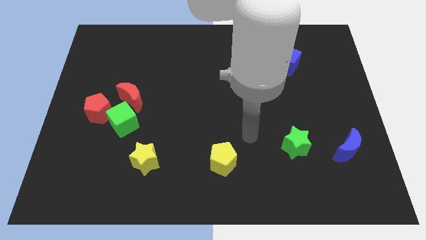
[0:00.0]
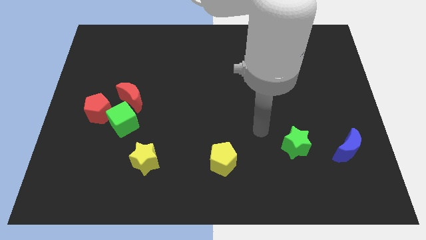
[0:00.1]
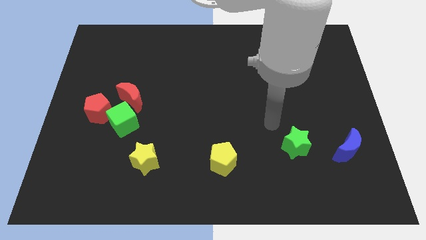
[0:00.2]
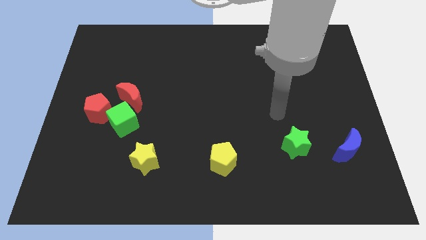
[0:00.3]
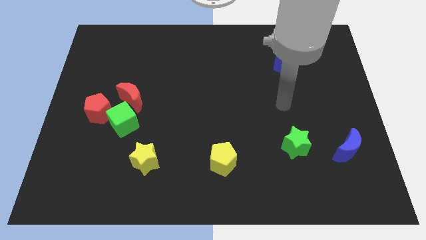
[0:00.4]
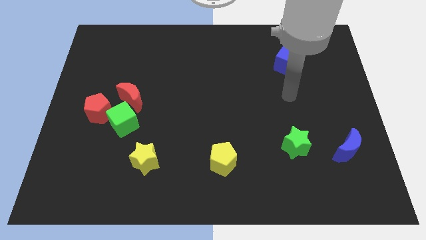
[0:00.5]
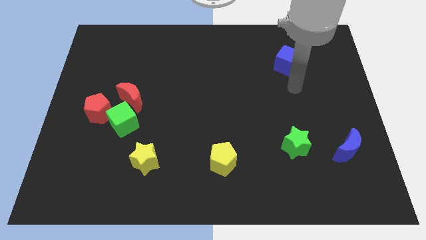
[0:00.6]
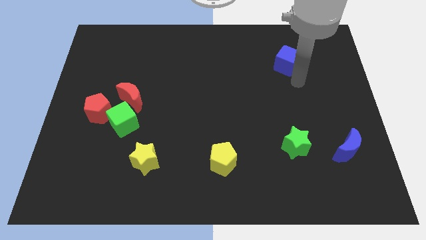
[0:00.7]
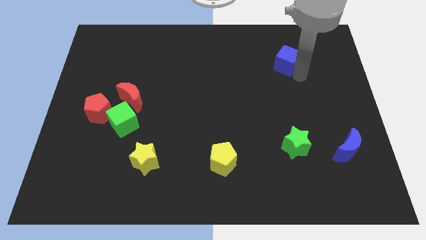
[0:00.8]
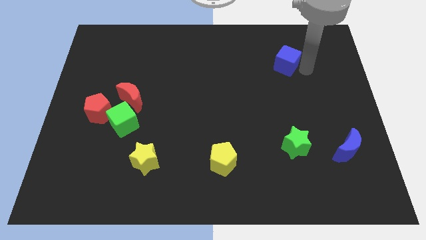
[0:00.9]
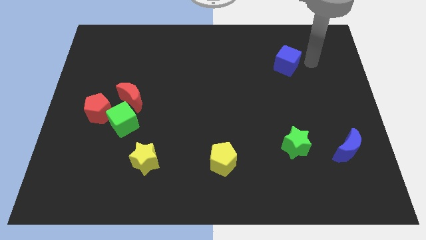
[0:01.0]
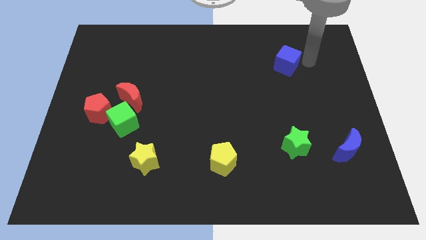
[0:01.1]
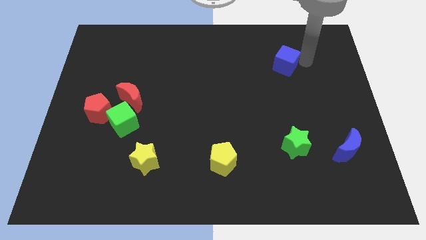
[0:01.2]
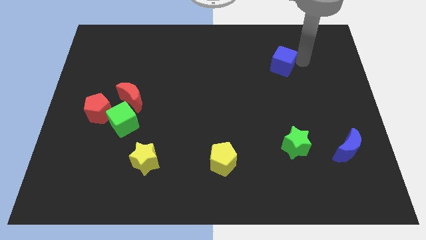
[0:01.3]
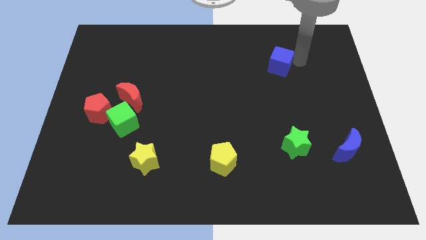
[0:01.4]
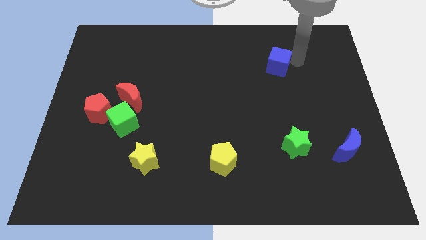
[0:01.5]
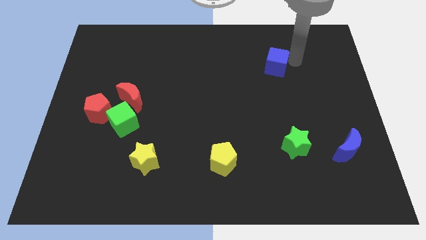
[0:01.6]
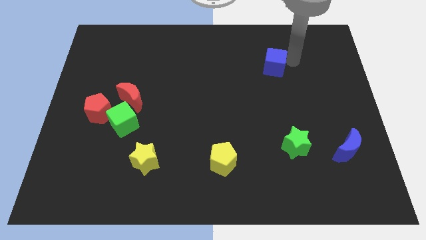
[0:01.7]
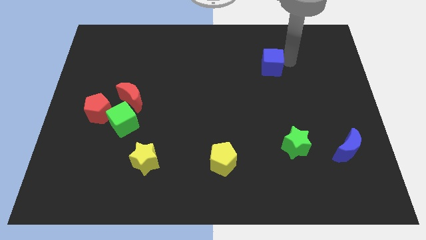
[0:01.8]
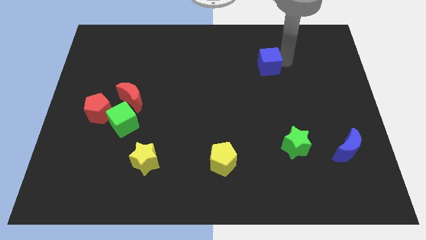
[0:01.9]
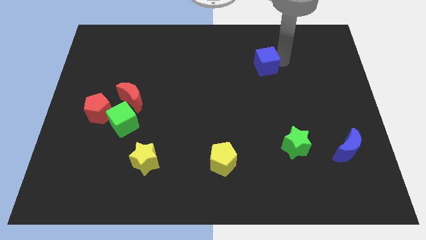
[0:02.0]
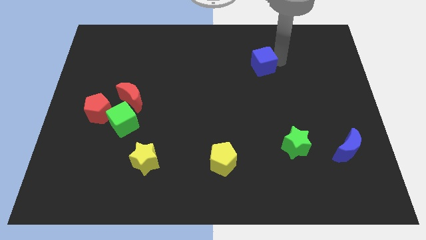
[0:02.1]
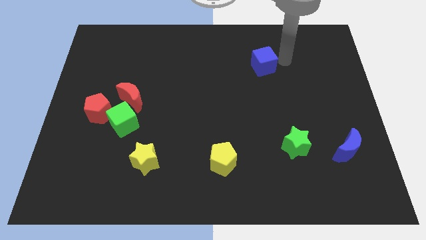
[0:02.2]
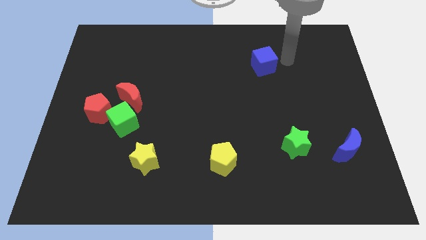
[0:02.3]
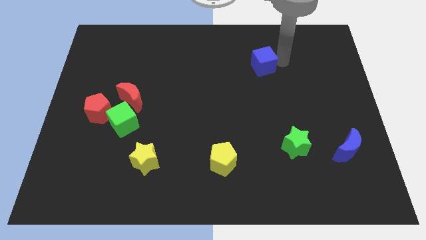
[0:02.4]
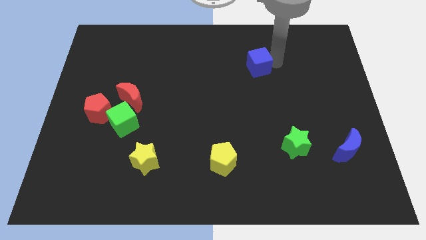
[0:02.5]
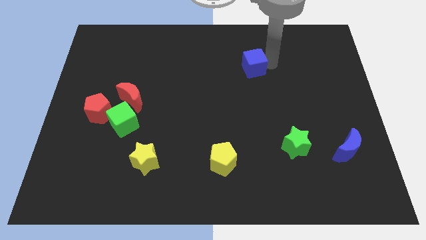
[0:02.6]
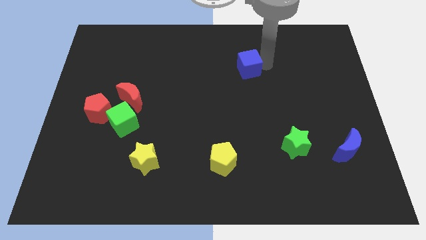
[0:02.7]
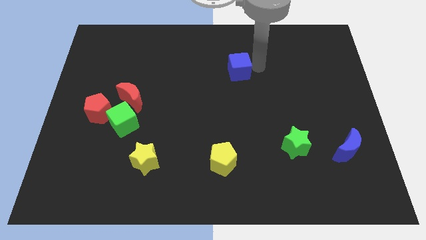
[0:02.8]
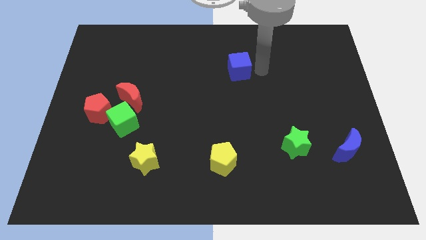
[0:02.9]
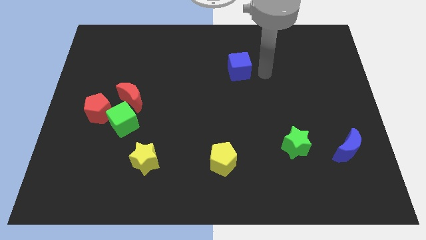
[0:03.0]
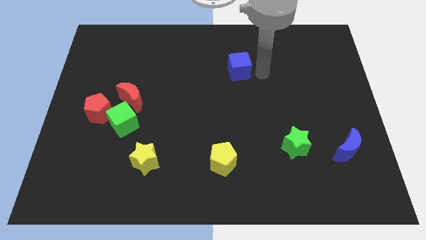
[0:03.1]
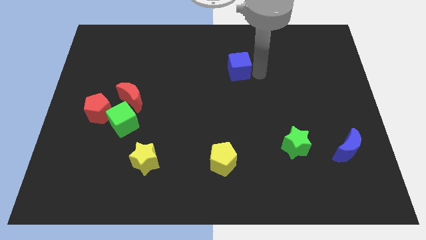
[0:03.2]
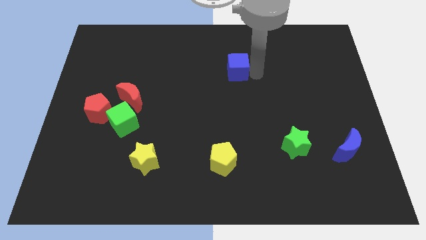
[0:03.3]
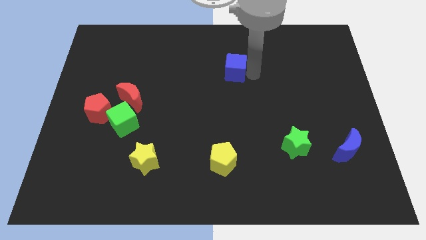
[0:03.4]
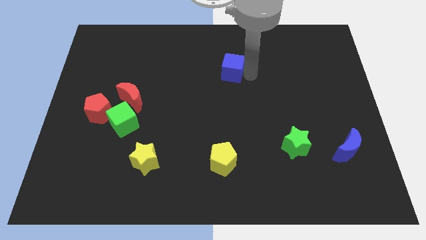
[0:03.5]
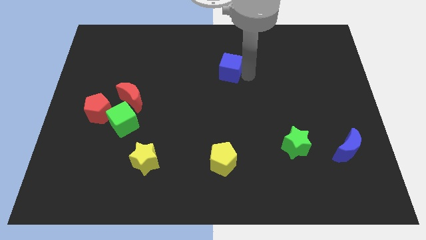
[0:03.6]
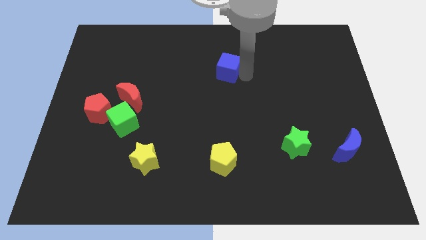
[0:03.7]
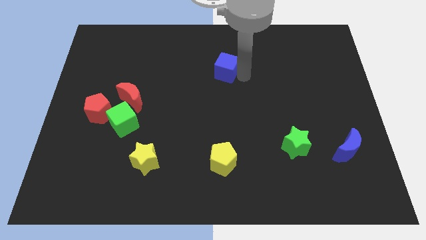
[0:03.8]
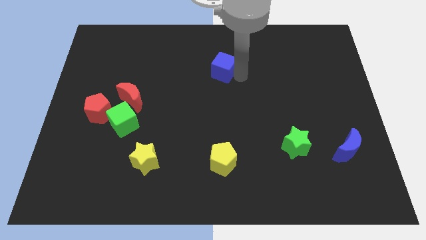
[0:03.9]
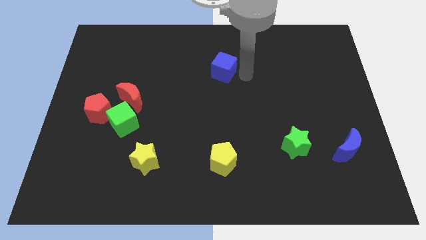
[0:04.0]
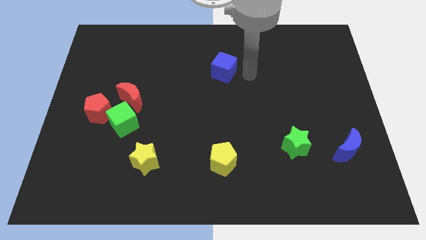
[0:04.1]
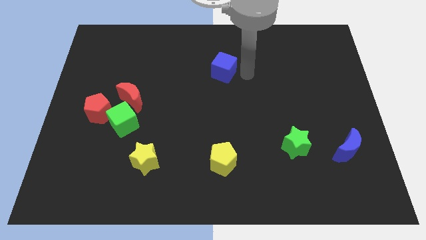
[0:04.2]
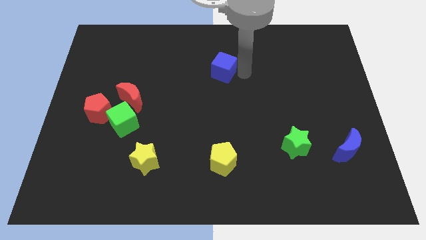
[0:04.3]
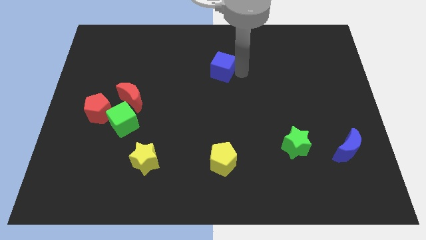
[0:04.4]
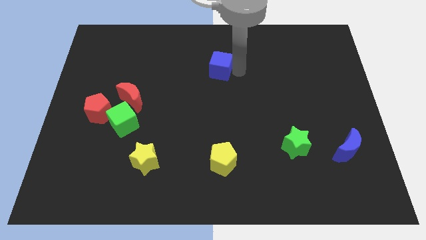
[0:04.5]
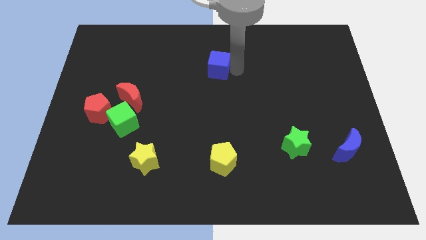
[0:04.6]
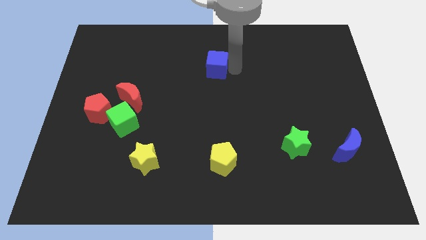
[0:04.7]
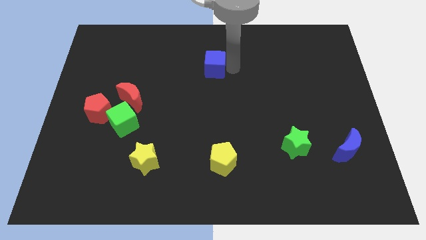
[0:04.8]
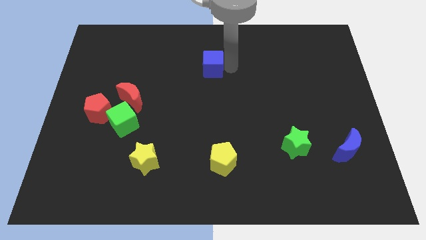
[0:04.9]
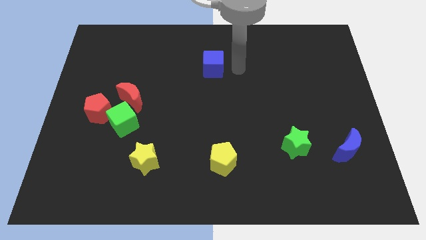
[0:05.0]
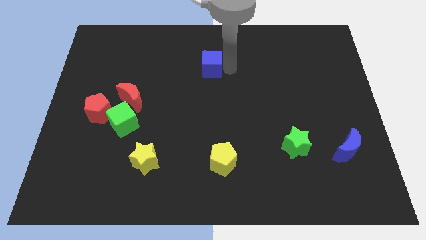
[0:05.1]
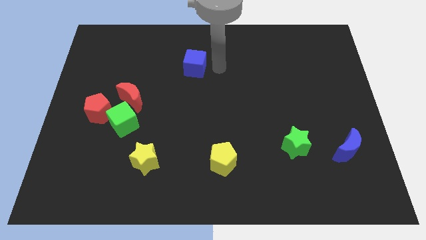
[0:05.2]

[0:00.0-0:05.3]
slide the blue cube left

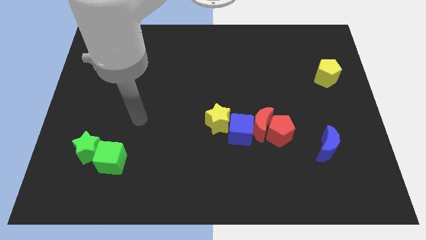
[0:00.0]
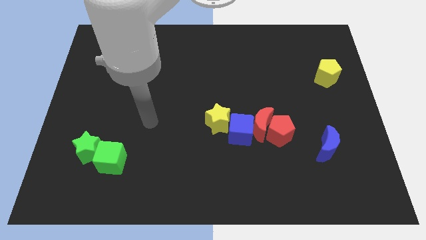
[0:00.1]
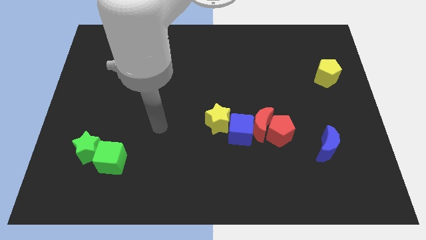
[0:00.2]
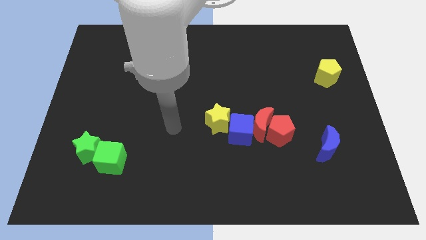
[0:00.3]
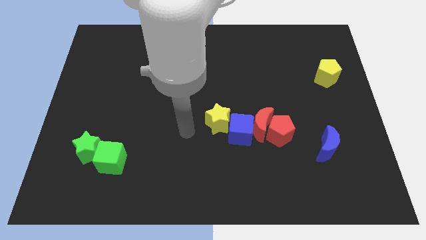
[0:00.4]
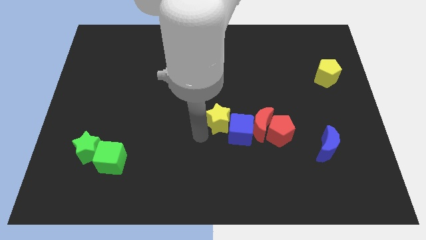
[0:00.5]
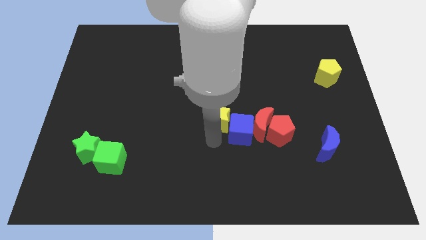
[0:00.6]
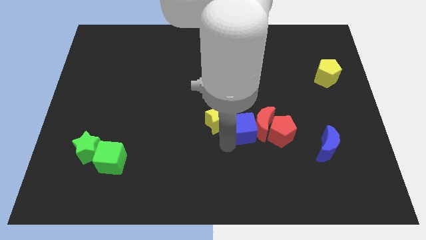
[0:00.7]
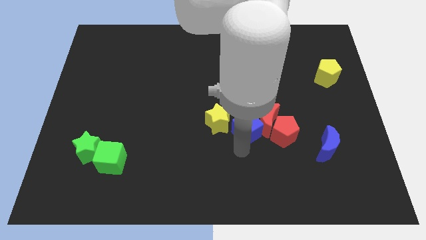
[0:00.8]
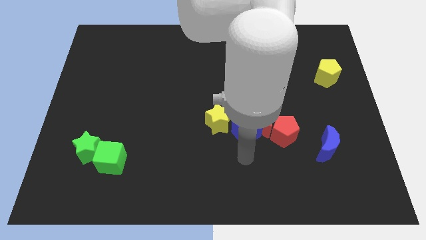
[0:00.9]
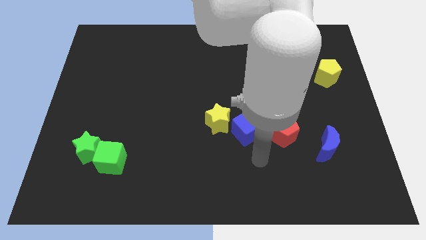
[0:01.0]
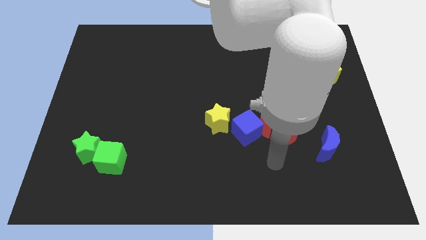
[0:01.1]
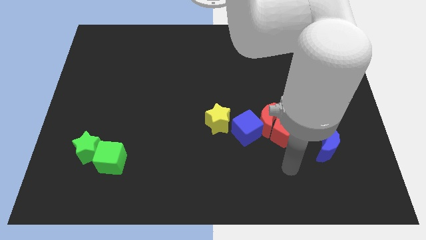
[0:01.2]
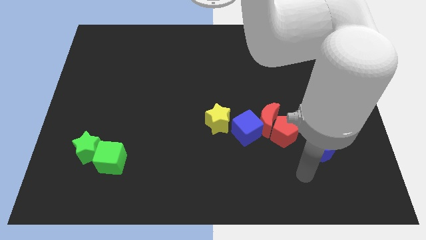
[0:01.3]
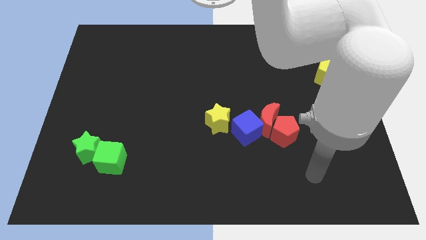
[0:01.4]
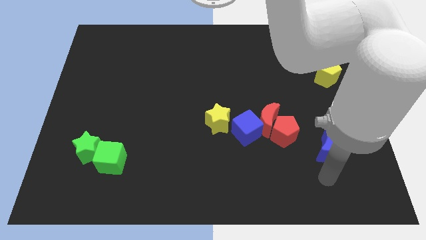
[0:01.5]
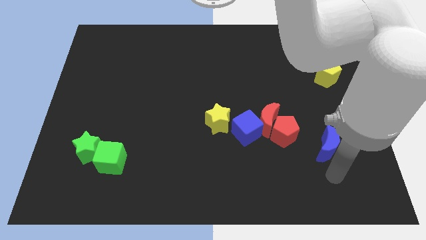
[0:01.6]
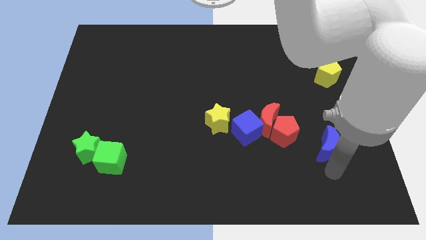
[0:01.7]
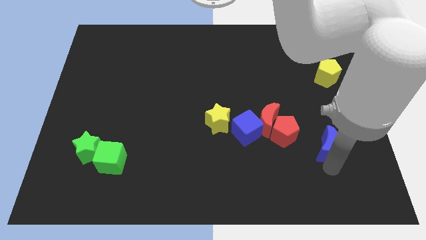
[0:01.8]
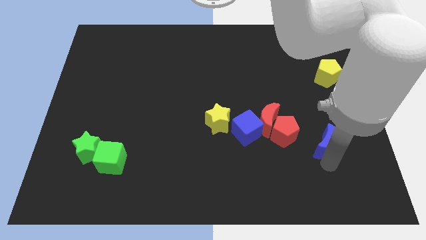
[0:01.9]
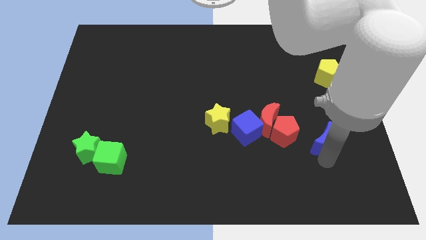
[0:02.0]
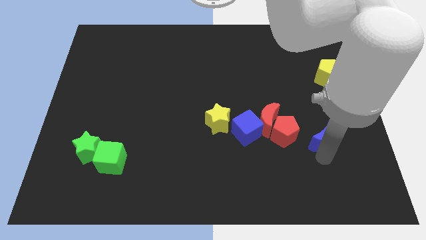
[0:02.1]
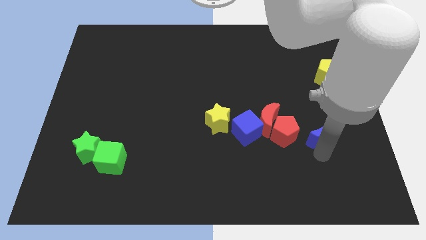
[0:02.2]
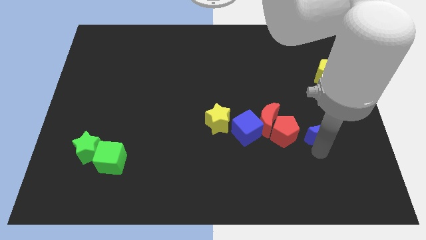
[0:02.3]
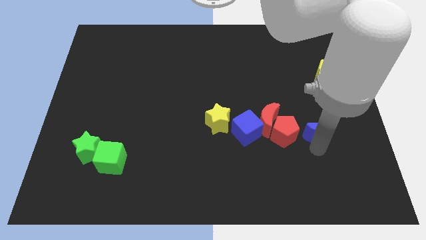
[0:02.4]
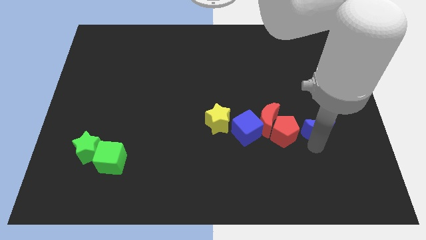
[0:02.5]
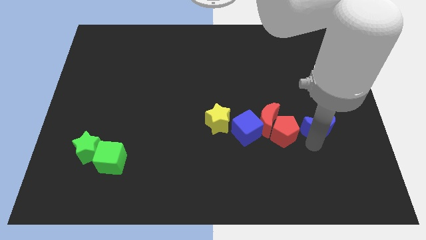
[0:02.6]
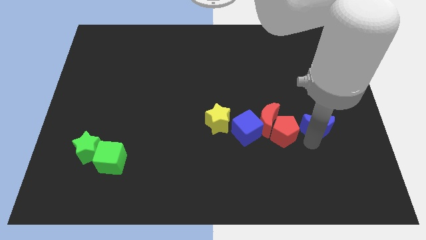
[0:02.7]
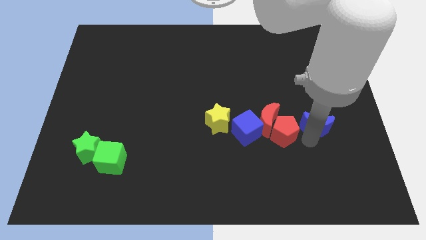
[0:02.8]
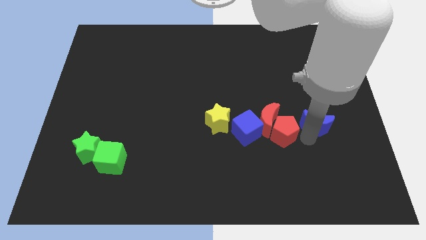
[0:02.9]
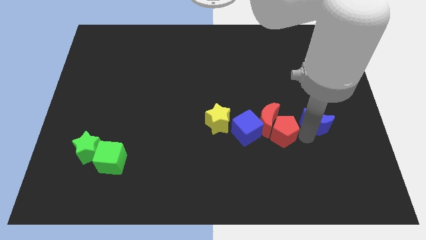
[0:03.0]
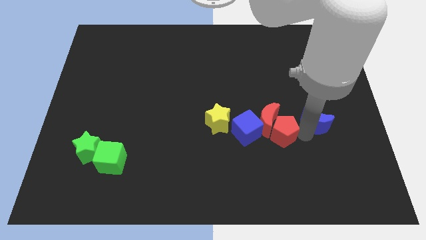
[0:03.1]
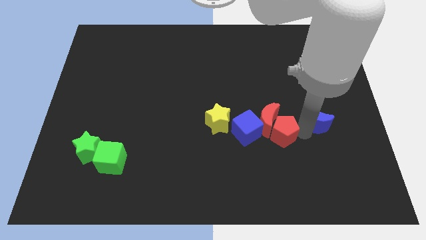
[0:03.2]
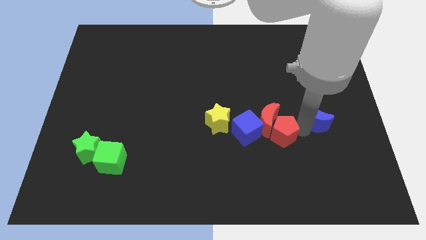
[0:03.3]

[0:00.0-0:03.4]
slightly slide the blue moon up
